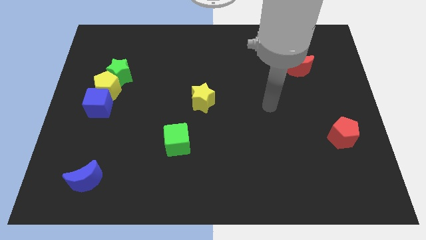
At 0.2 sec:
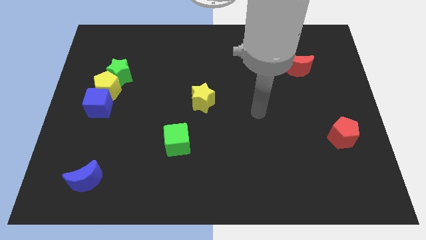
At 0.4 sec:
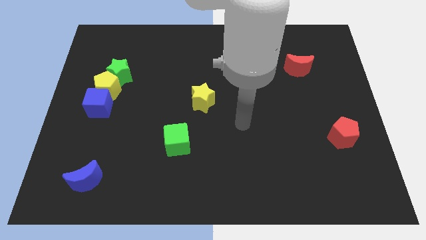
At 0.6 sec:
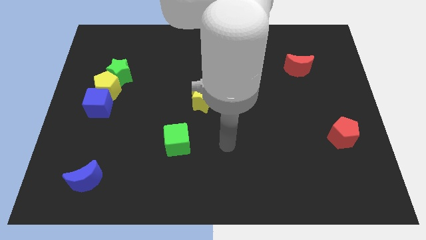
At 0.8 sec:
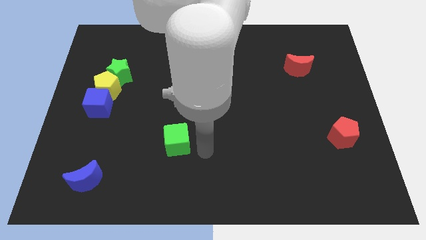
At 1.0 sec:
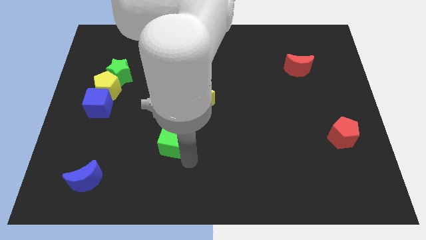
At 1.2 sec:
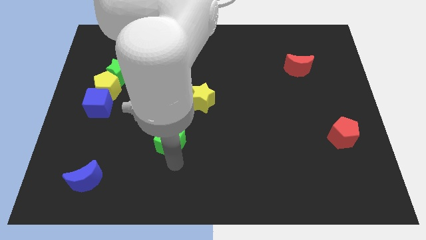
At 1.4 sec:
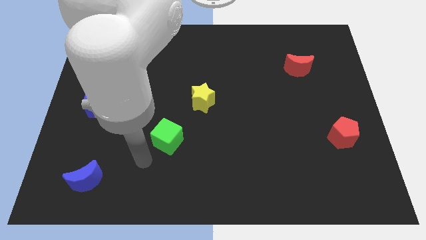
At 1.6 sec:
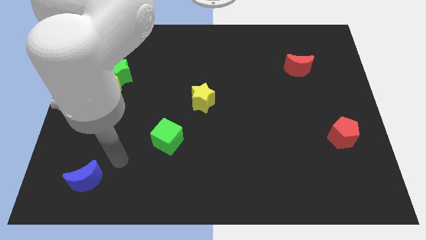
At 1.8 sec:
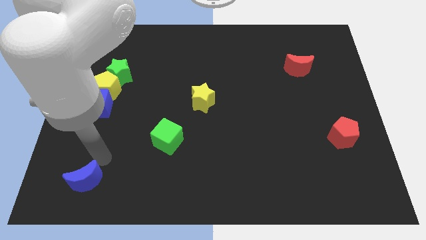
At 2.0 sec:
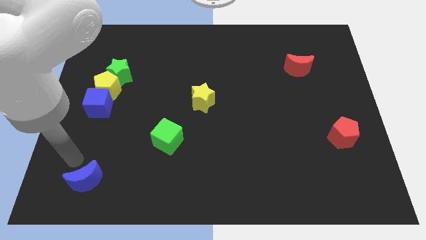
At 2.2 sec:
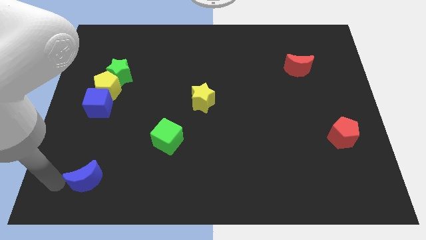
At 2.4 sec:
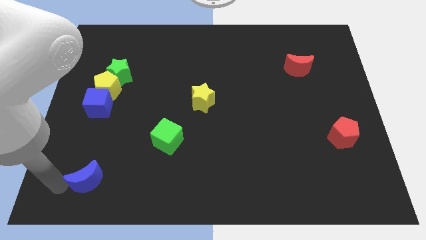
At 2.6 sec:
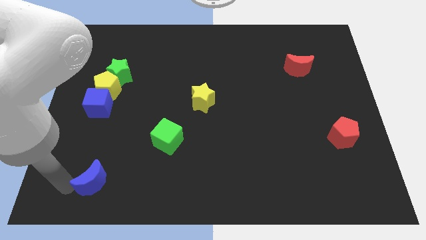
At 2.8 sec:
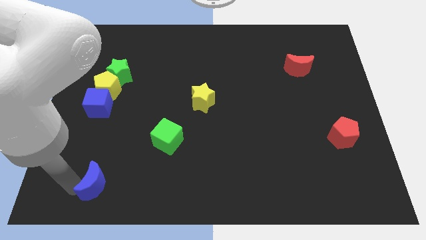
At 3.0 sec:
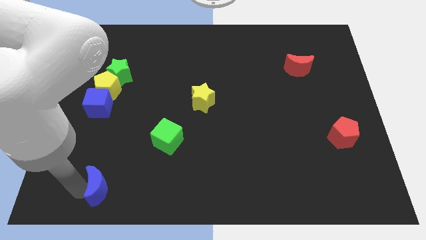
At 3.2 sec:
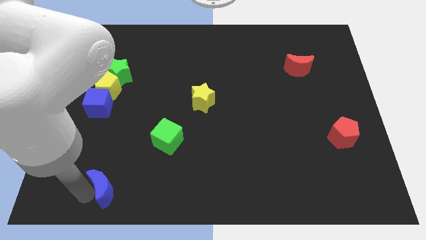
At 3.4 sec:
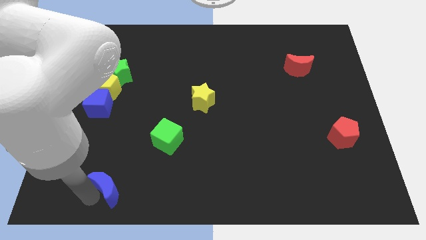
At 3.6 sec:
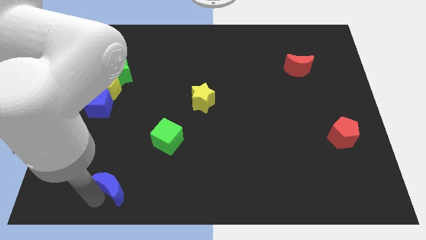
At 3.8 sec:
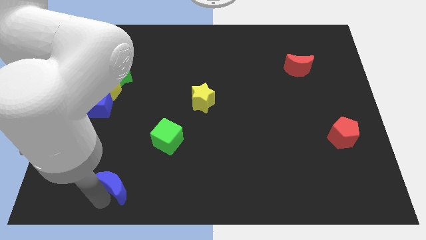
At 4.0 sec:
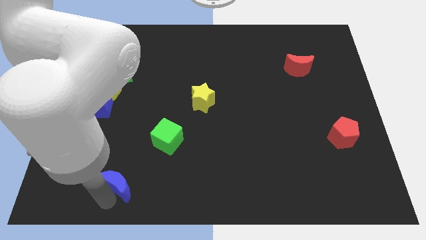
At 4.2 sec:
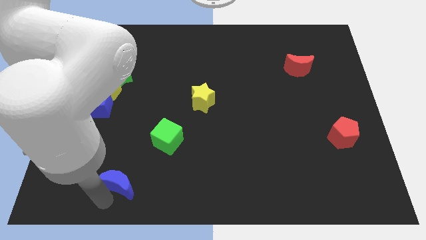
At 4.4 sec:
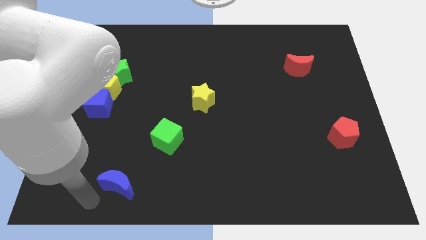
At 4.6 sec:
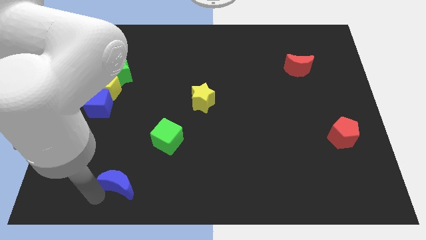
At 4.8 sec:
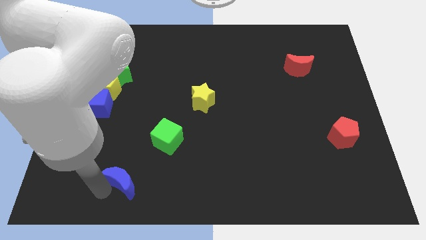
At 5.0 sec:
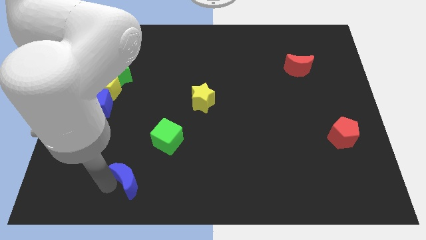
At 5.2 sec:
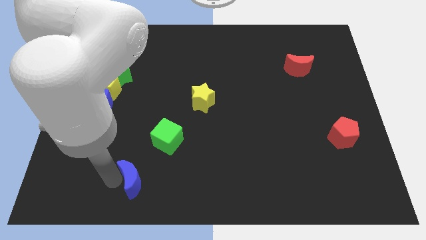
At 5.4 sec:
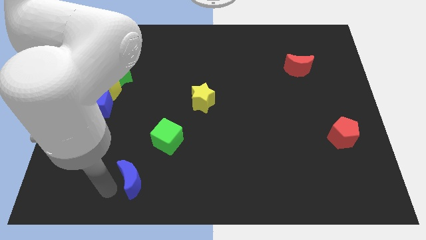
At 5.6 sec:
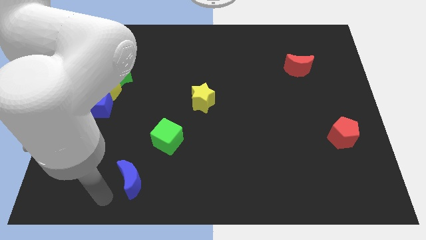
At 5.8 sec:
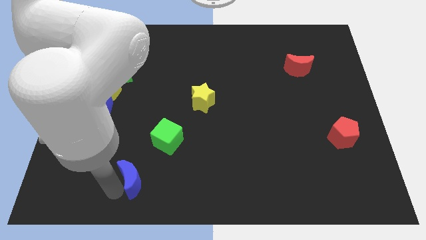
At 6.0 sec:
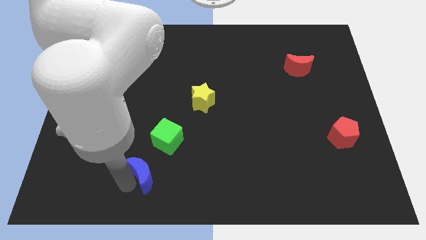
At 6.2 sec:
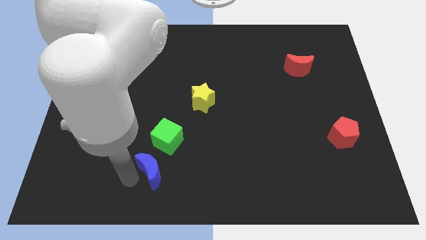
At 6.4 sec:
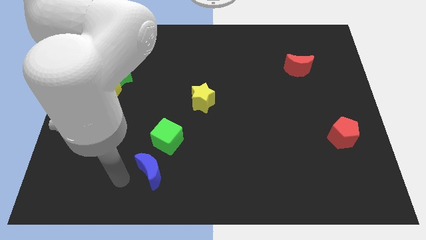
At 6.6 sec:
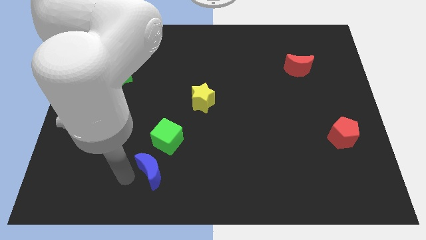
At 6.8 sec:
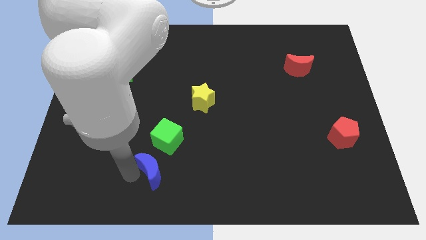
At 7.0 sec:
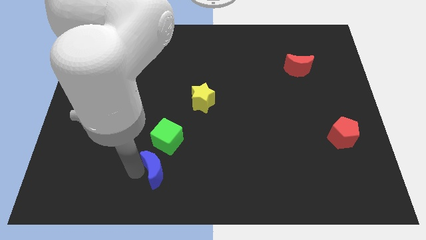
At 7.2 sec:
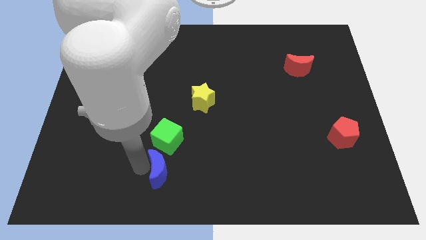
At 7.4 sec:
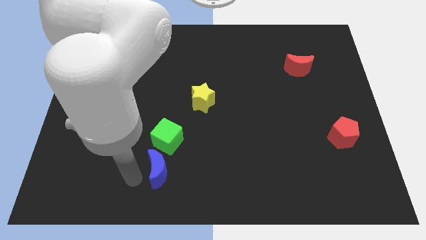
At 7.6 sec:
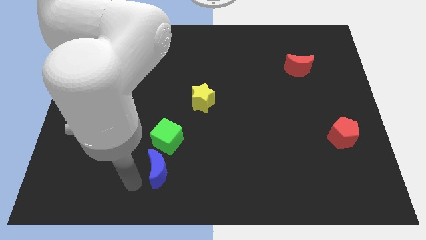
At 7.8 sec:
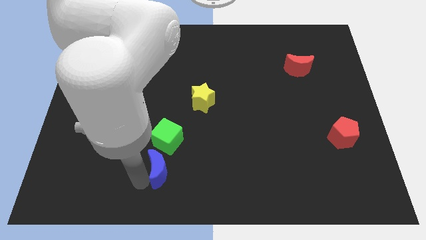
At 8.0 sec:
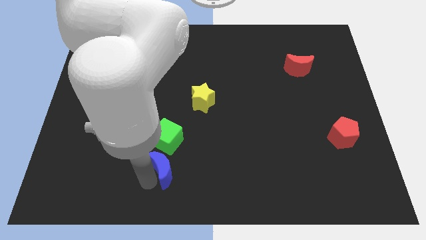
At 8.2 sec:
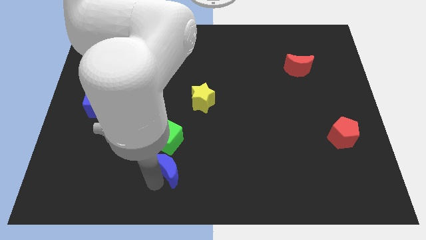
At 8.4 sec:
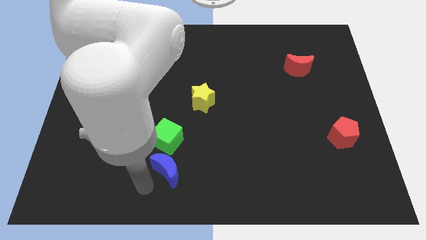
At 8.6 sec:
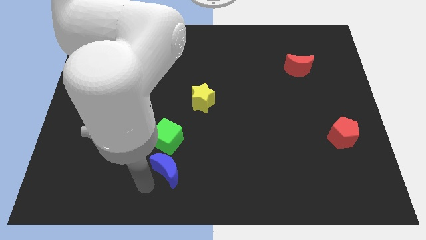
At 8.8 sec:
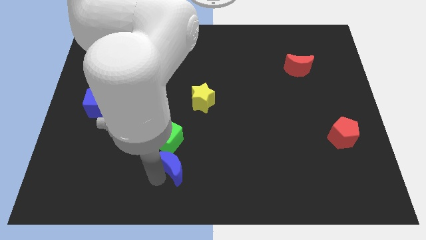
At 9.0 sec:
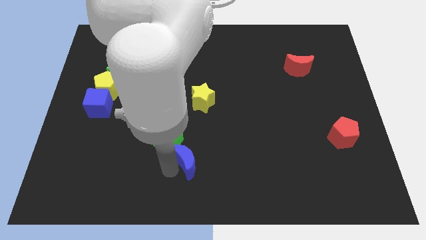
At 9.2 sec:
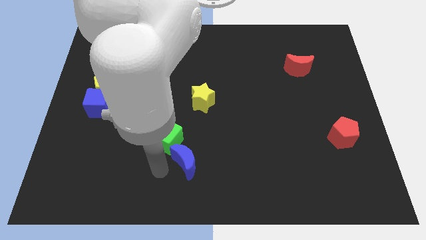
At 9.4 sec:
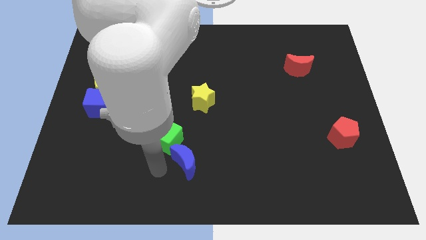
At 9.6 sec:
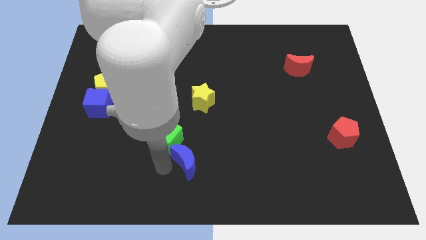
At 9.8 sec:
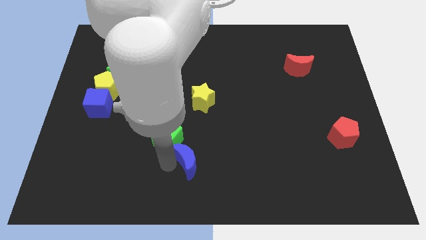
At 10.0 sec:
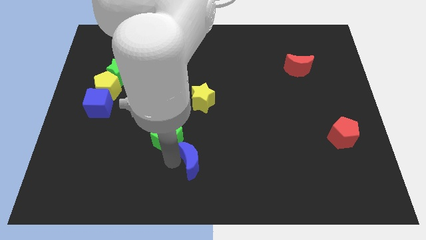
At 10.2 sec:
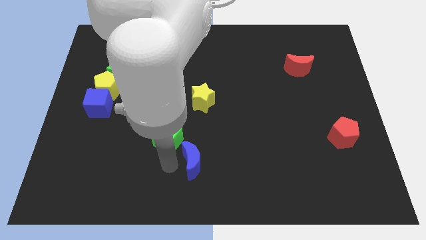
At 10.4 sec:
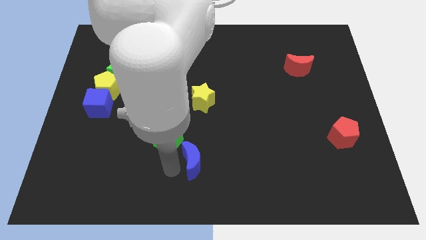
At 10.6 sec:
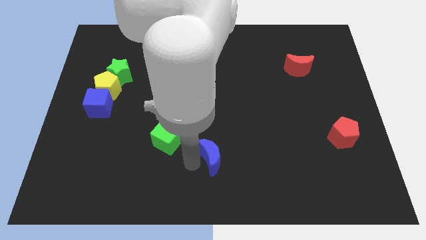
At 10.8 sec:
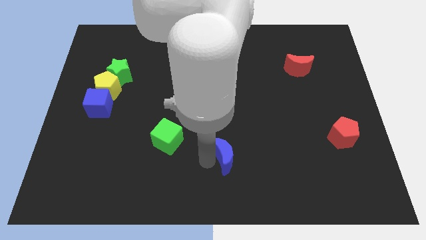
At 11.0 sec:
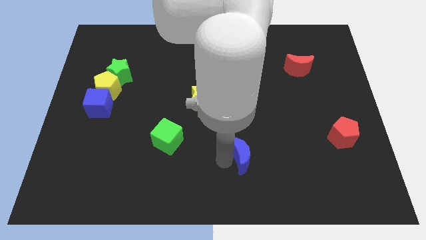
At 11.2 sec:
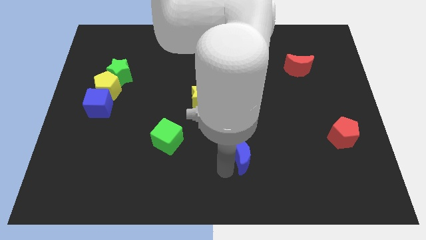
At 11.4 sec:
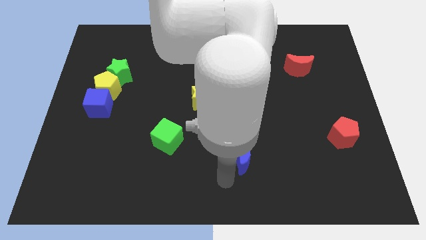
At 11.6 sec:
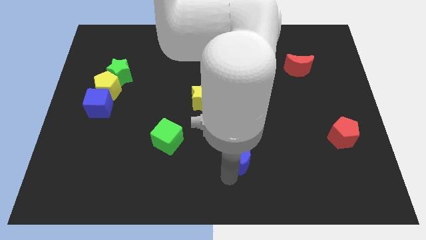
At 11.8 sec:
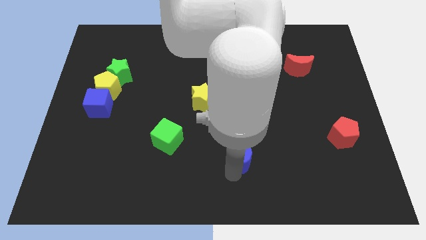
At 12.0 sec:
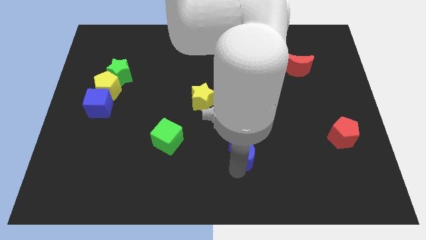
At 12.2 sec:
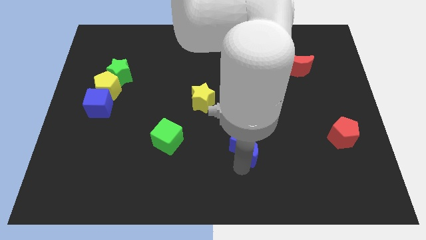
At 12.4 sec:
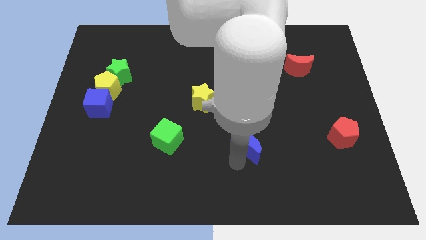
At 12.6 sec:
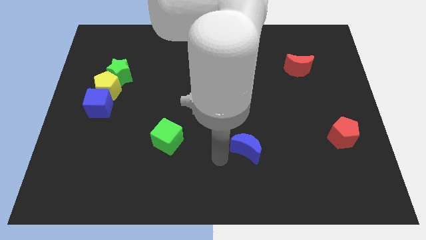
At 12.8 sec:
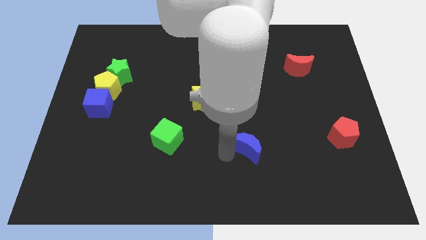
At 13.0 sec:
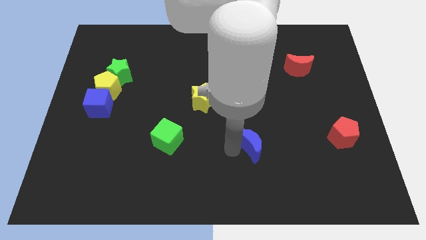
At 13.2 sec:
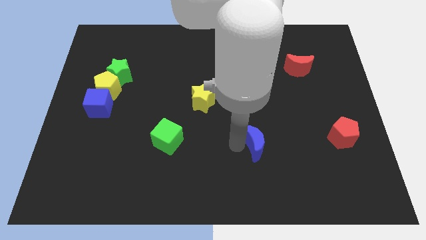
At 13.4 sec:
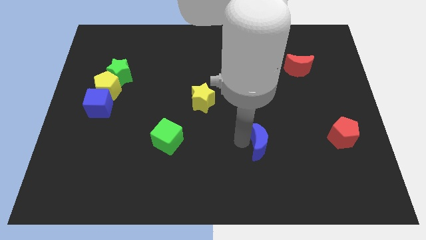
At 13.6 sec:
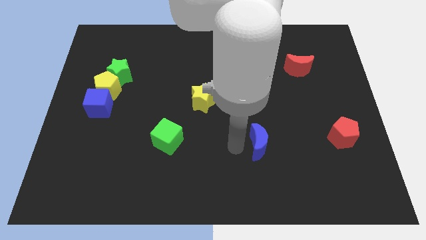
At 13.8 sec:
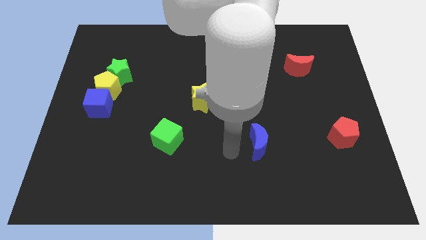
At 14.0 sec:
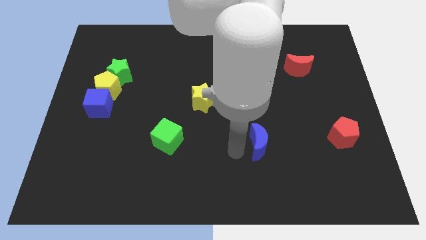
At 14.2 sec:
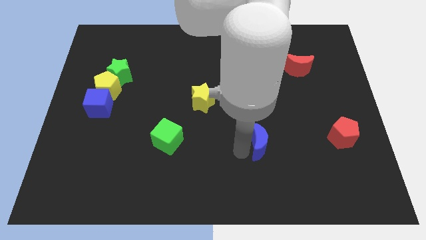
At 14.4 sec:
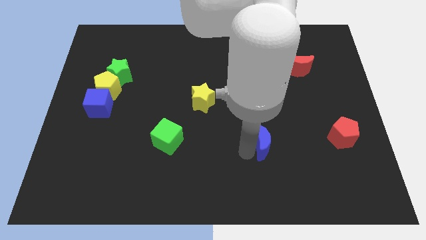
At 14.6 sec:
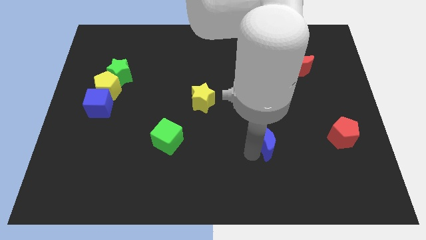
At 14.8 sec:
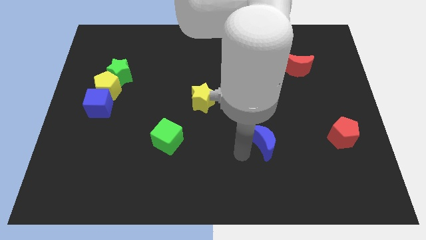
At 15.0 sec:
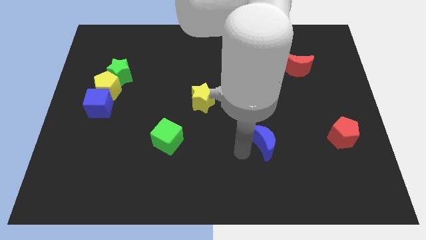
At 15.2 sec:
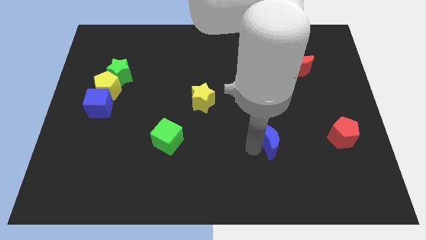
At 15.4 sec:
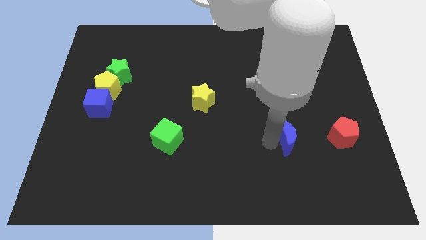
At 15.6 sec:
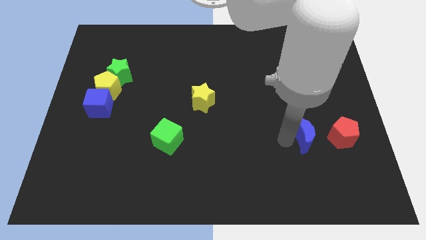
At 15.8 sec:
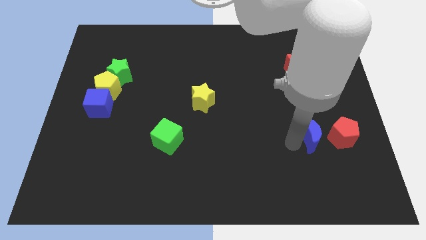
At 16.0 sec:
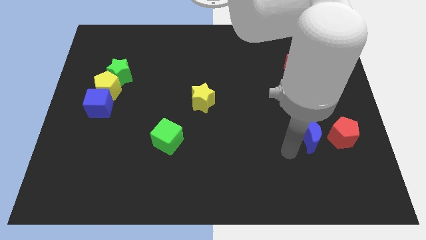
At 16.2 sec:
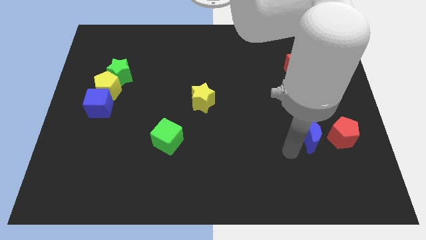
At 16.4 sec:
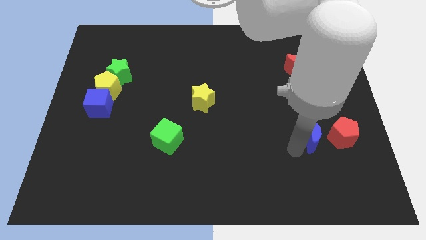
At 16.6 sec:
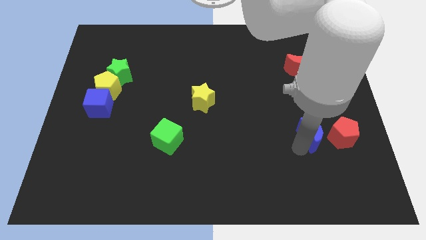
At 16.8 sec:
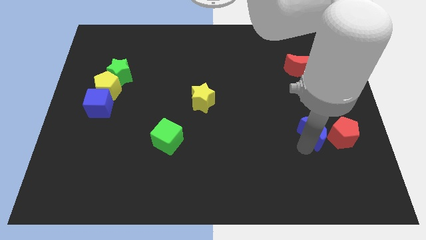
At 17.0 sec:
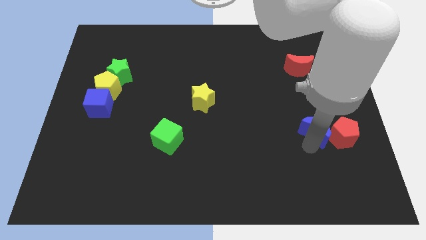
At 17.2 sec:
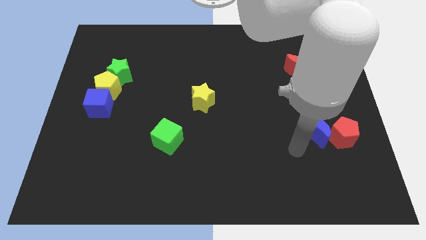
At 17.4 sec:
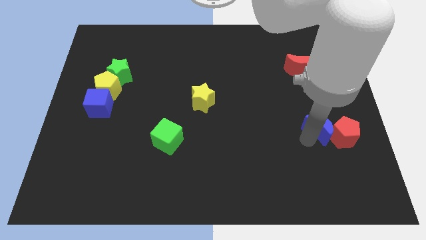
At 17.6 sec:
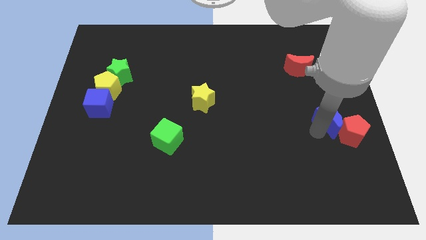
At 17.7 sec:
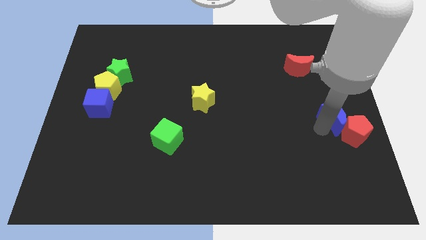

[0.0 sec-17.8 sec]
slide the blue moon to the right side of the board
